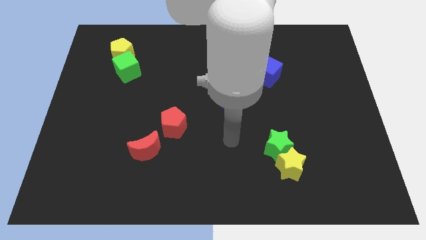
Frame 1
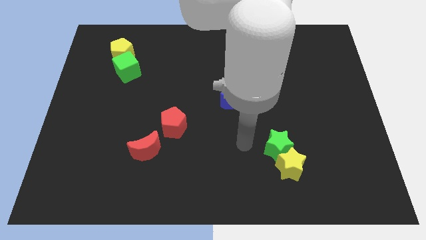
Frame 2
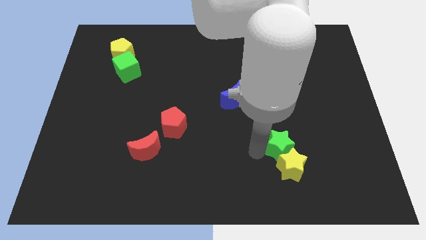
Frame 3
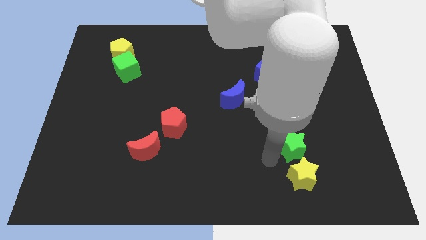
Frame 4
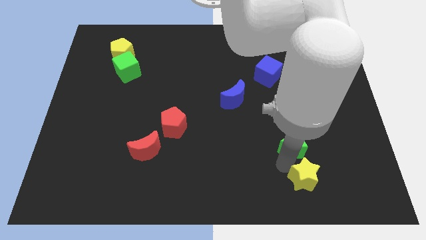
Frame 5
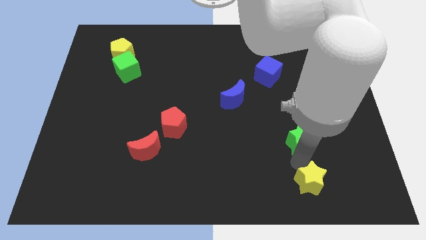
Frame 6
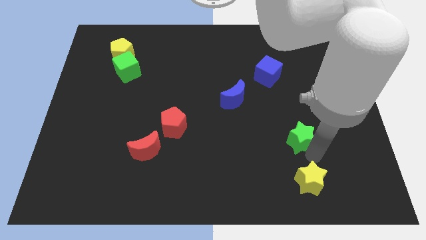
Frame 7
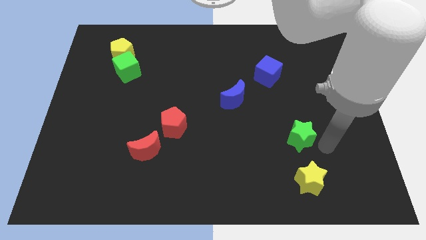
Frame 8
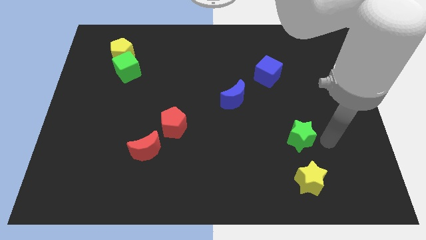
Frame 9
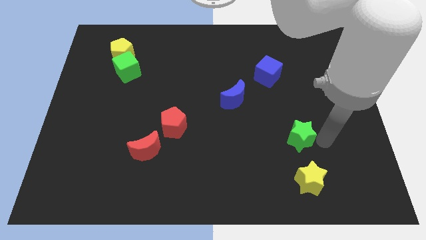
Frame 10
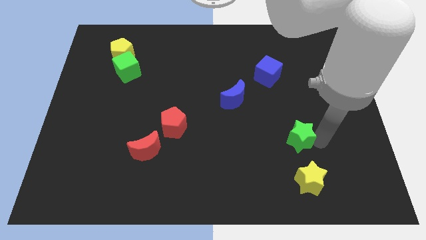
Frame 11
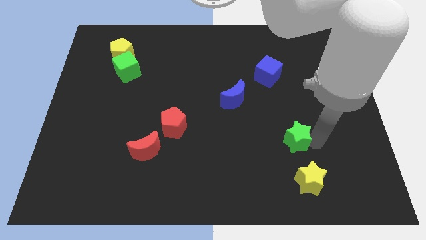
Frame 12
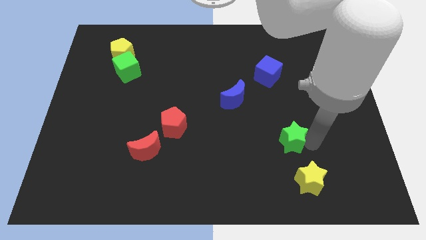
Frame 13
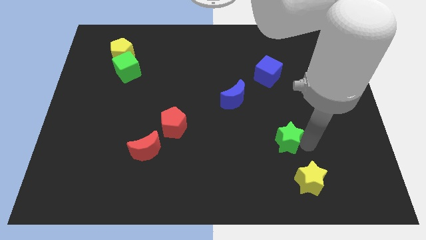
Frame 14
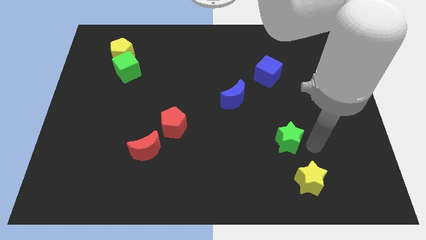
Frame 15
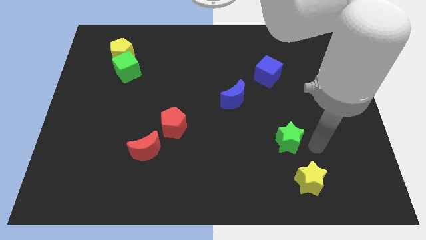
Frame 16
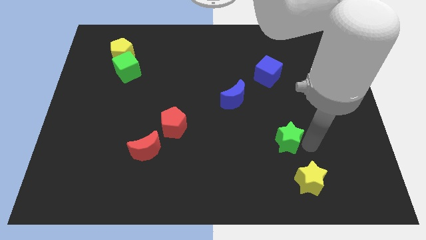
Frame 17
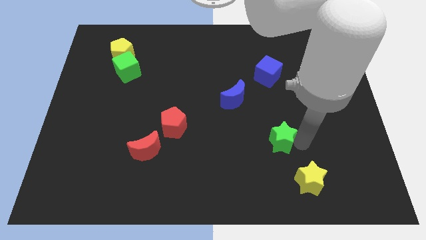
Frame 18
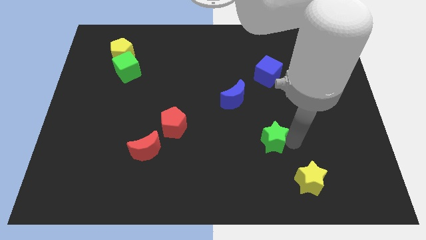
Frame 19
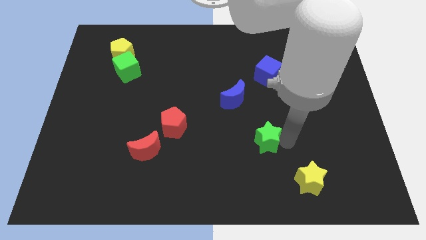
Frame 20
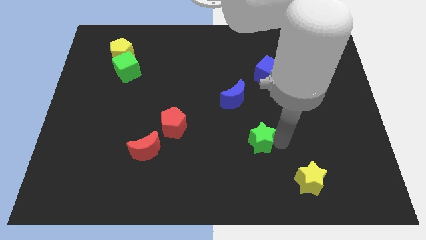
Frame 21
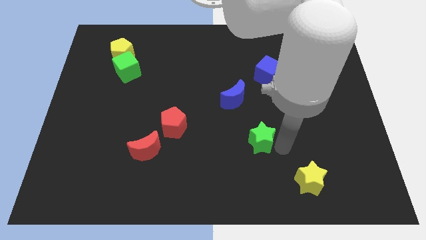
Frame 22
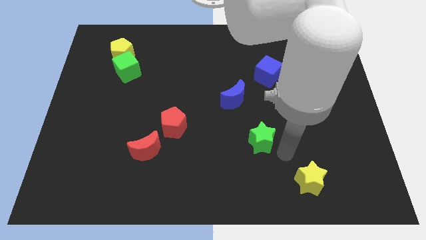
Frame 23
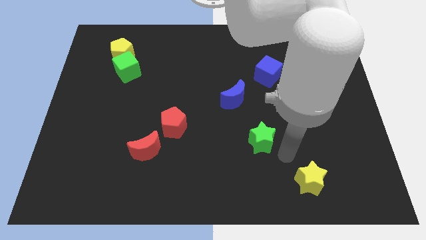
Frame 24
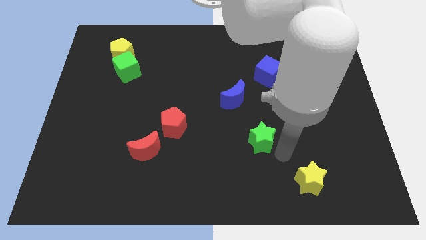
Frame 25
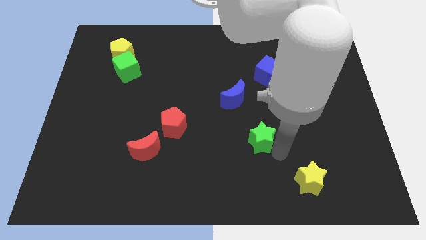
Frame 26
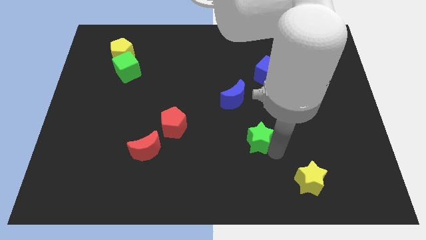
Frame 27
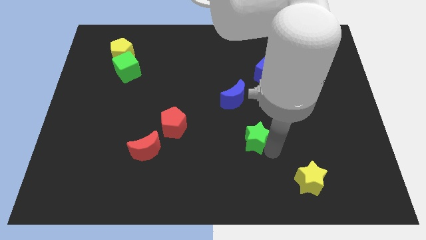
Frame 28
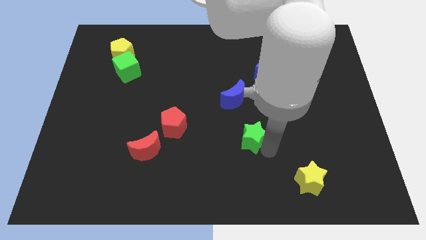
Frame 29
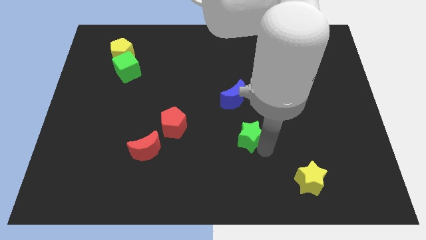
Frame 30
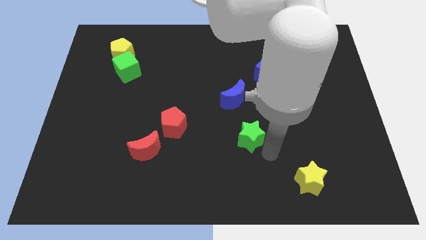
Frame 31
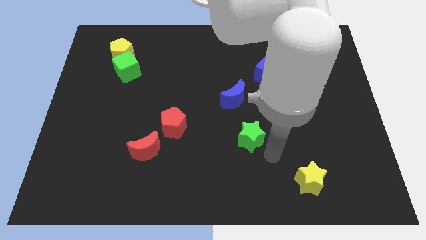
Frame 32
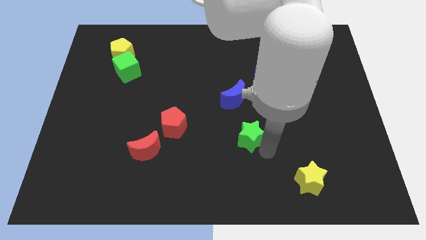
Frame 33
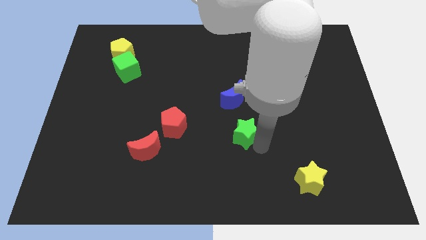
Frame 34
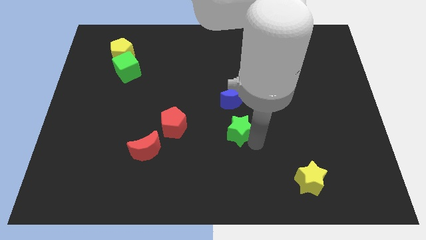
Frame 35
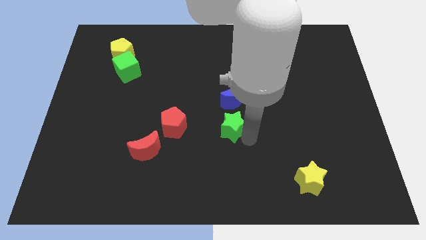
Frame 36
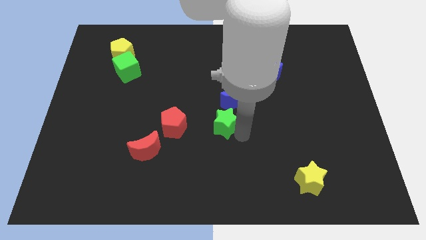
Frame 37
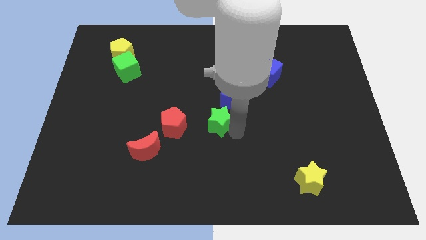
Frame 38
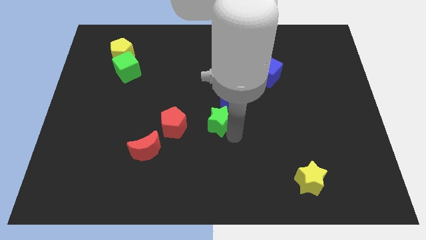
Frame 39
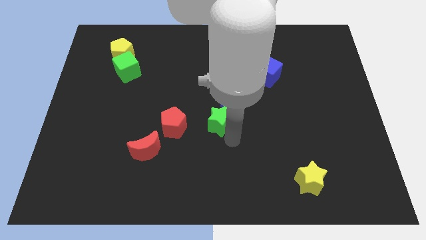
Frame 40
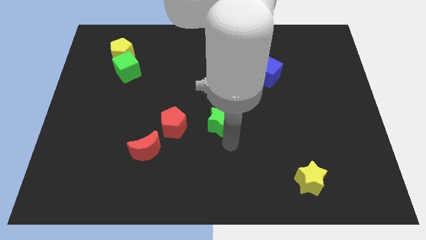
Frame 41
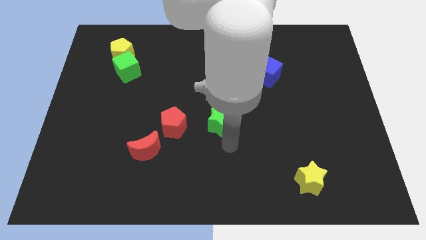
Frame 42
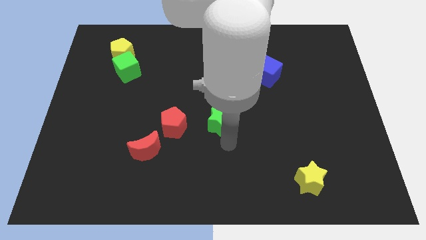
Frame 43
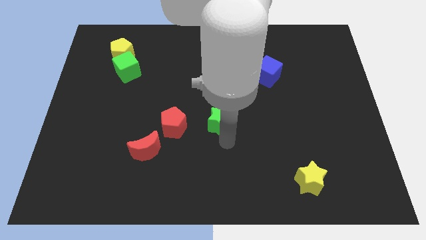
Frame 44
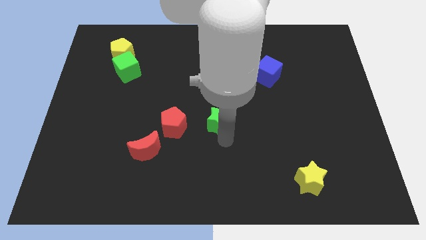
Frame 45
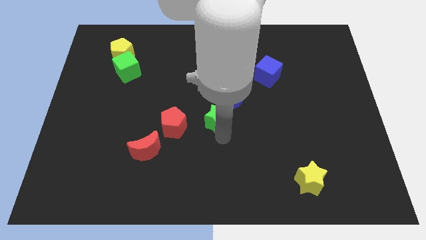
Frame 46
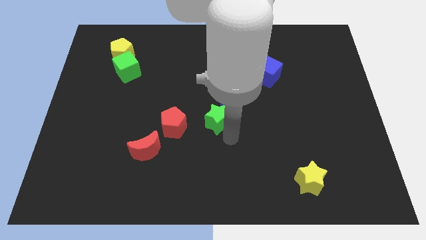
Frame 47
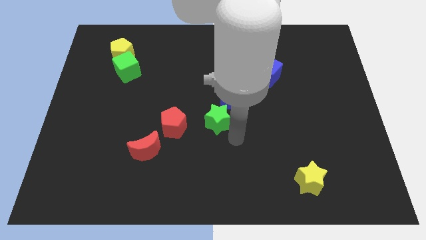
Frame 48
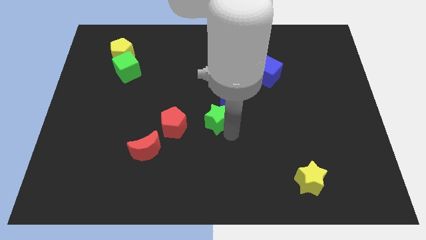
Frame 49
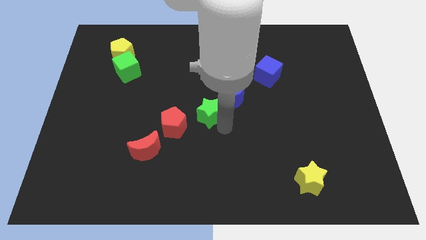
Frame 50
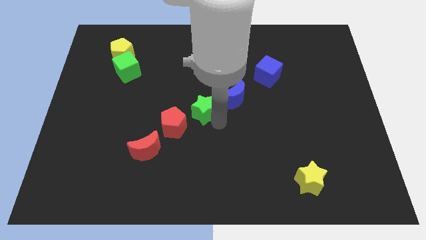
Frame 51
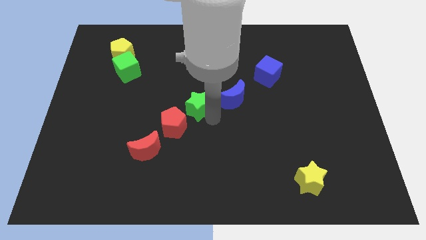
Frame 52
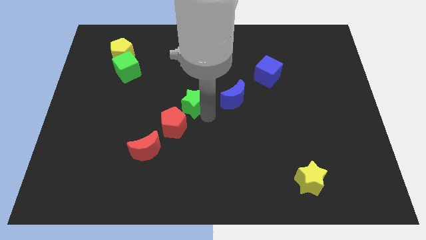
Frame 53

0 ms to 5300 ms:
push the green star diagonally up and left

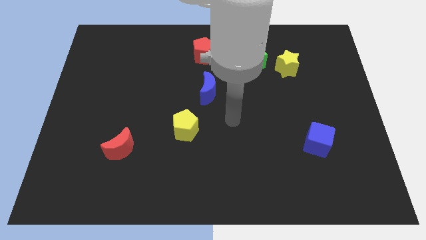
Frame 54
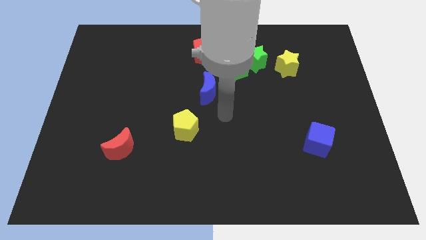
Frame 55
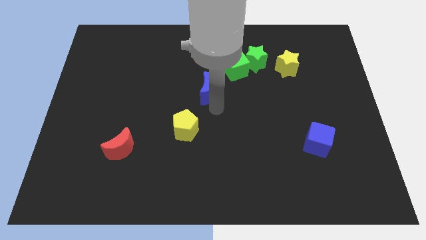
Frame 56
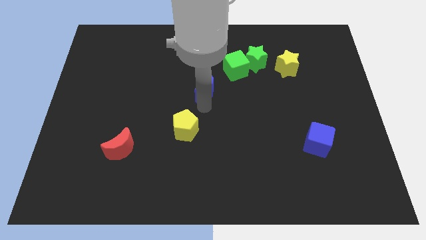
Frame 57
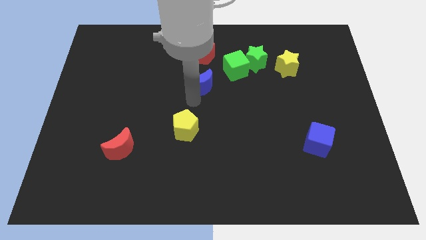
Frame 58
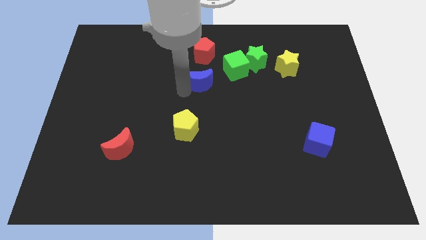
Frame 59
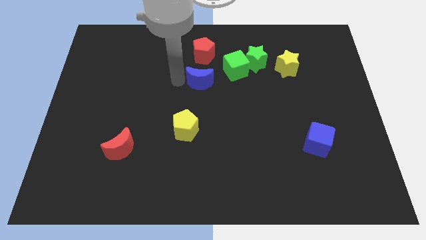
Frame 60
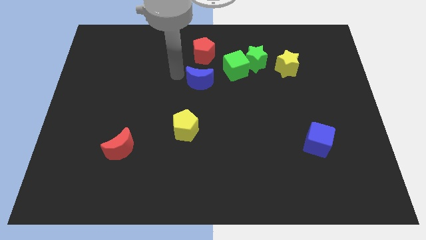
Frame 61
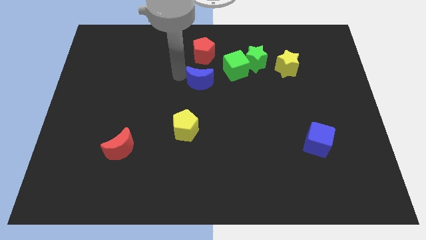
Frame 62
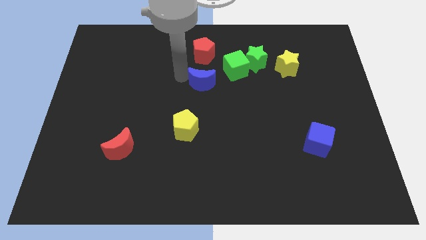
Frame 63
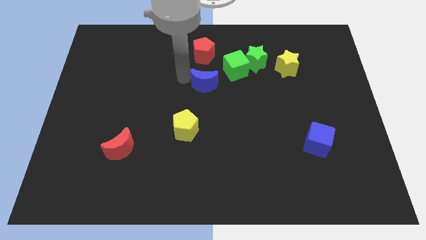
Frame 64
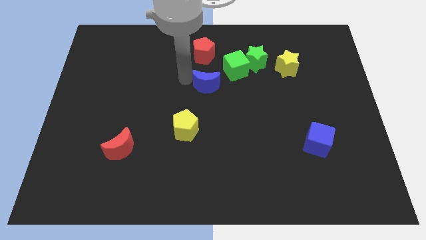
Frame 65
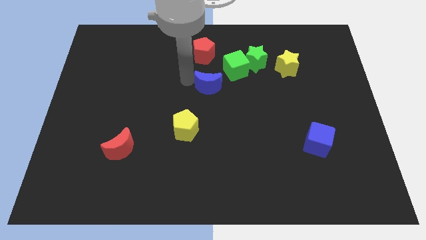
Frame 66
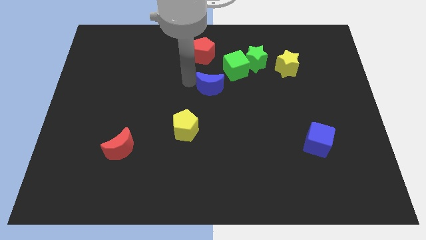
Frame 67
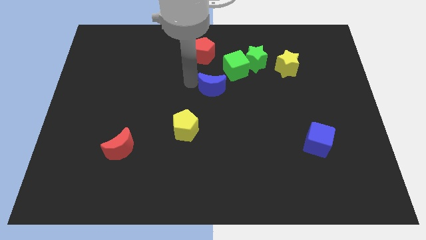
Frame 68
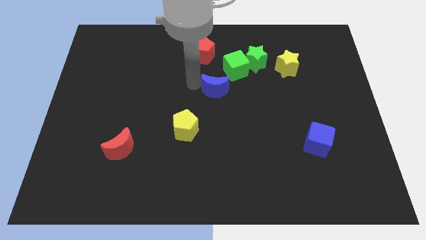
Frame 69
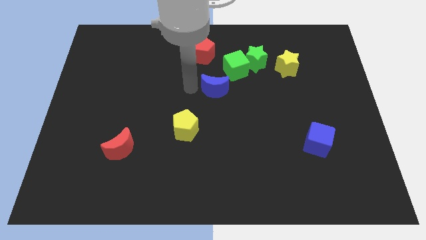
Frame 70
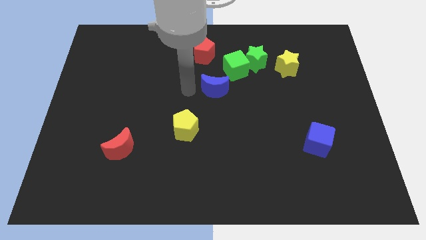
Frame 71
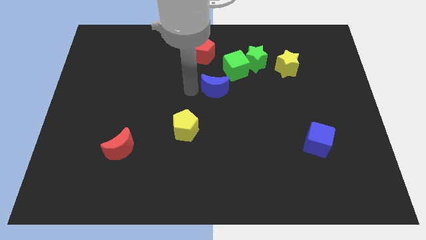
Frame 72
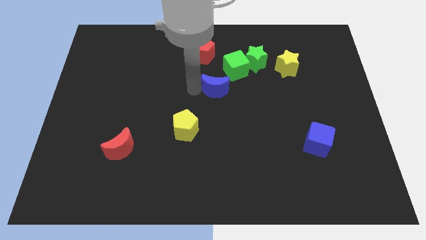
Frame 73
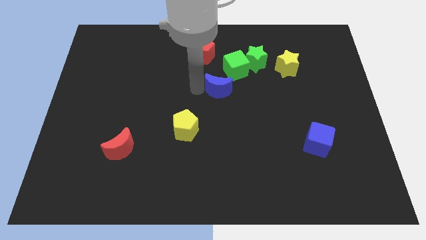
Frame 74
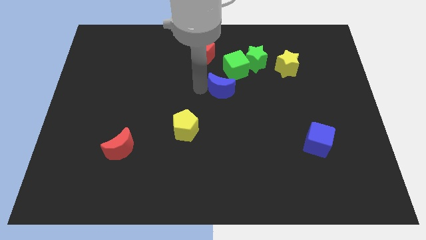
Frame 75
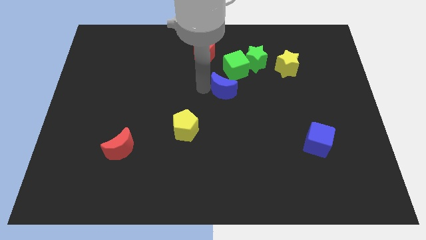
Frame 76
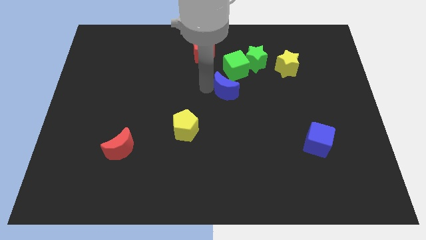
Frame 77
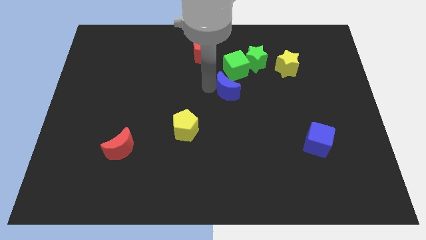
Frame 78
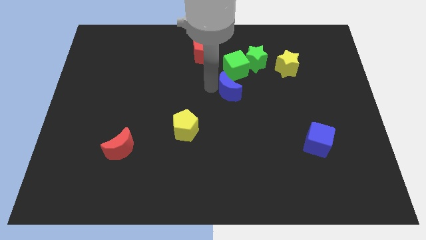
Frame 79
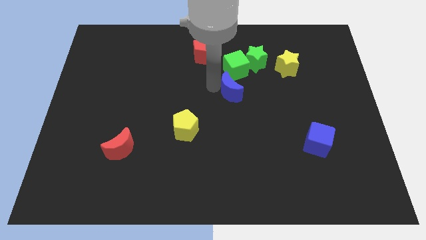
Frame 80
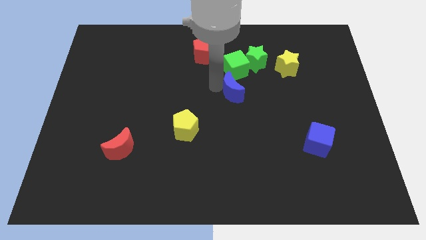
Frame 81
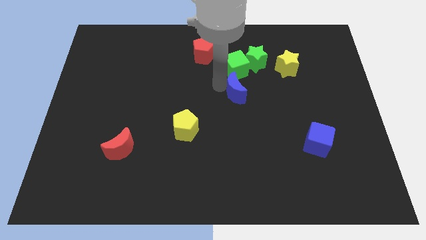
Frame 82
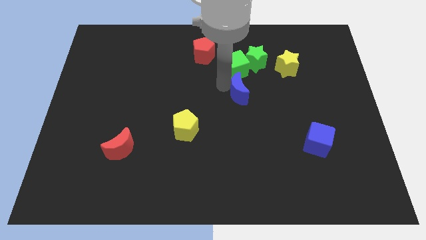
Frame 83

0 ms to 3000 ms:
slide the blue moon right a little bit
